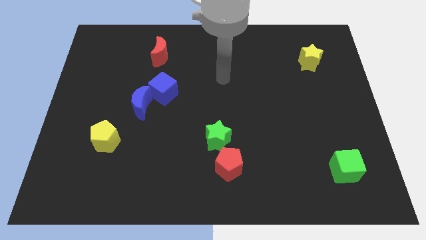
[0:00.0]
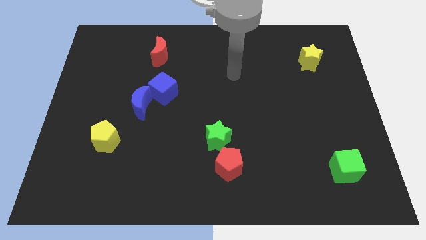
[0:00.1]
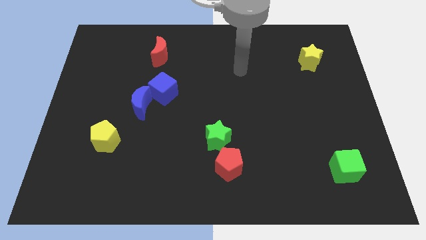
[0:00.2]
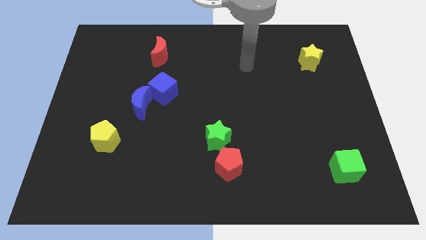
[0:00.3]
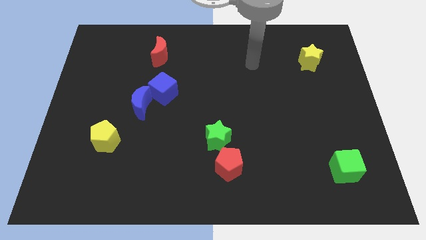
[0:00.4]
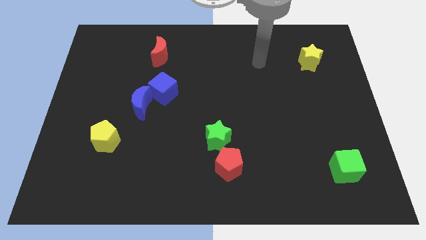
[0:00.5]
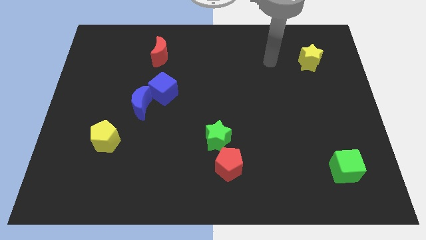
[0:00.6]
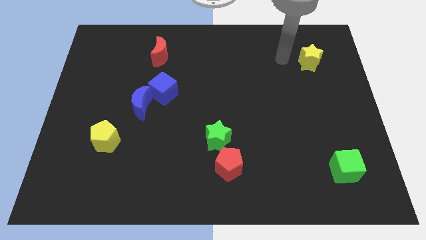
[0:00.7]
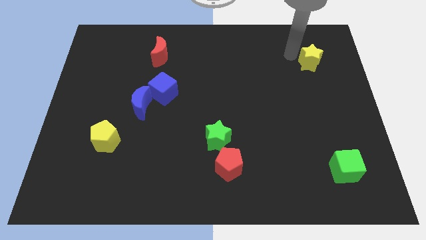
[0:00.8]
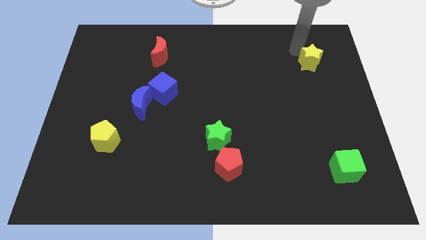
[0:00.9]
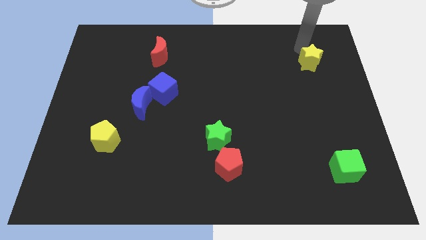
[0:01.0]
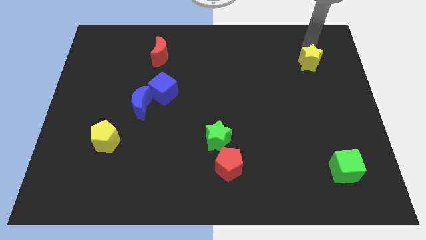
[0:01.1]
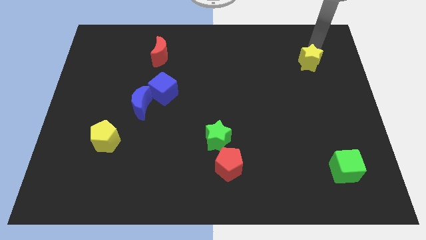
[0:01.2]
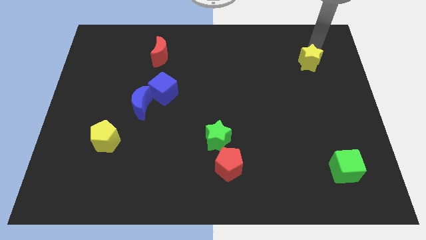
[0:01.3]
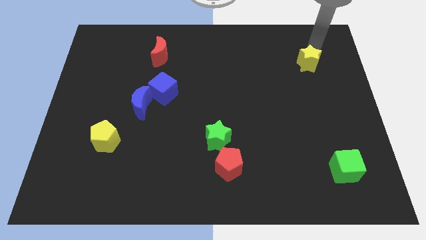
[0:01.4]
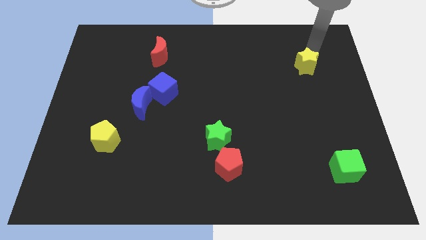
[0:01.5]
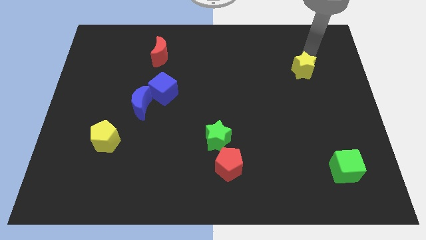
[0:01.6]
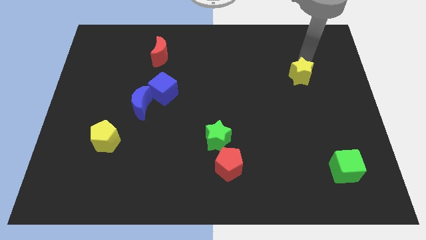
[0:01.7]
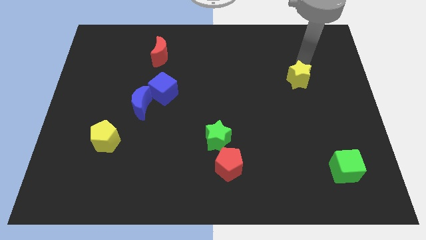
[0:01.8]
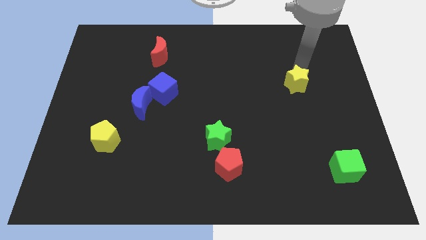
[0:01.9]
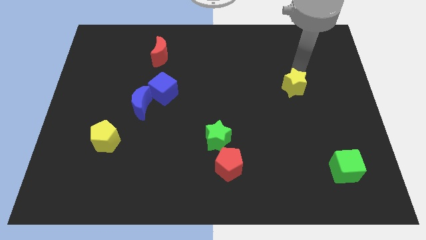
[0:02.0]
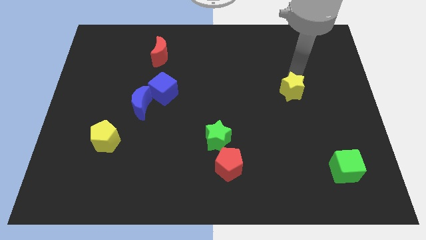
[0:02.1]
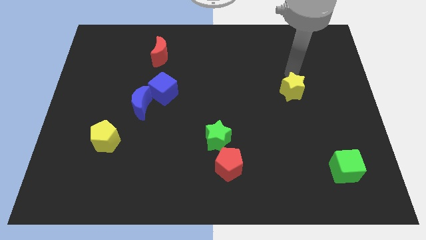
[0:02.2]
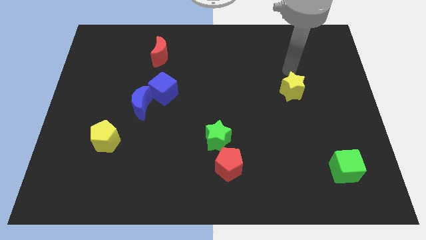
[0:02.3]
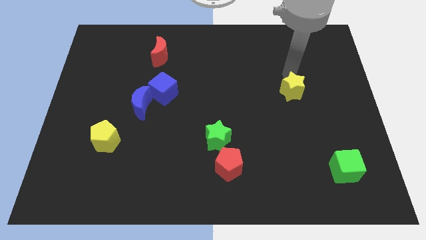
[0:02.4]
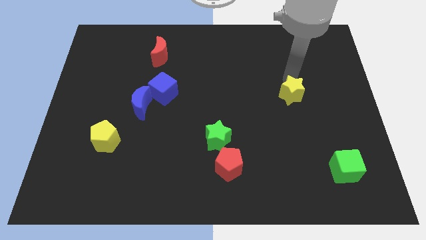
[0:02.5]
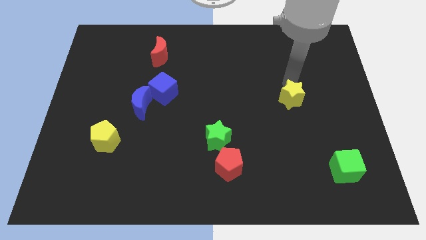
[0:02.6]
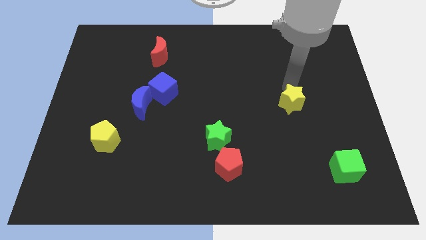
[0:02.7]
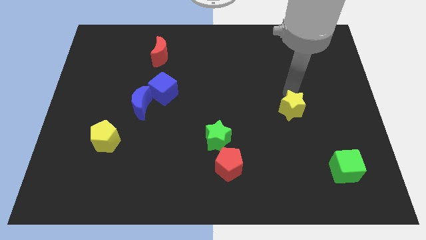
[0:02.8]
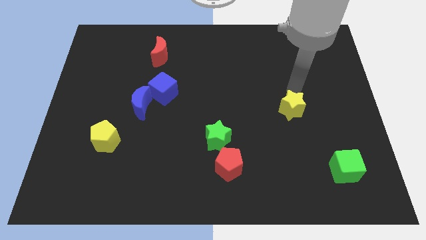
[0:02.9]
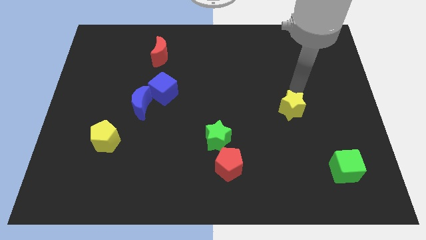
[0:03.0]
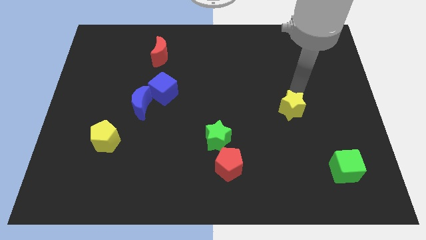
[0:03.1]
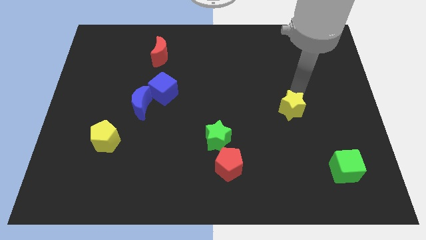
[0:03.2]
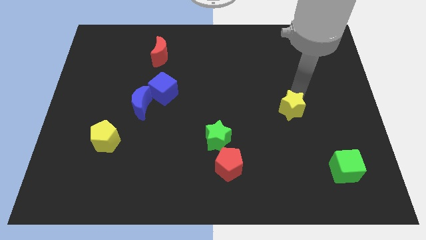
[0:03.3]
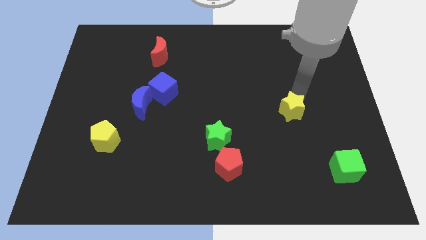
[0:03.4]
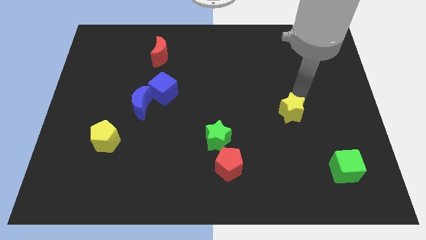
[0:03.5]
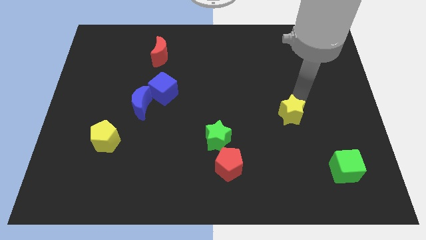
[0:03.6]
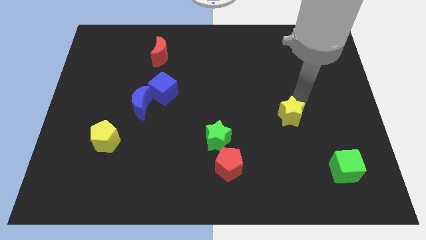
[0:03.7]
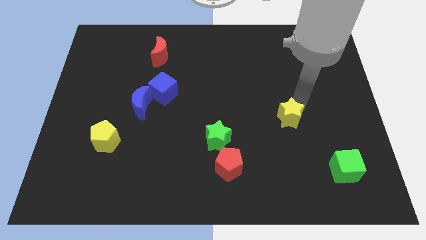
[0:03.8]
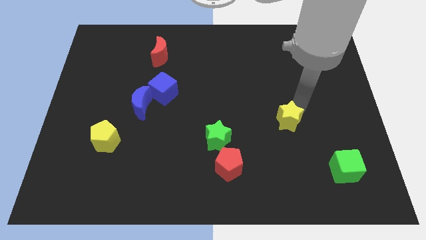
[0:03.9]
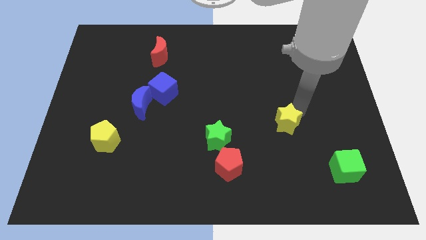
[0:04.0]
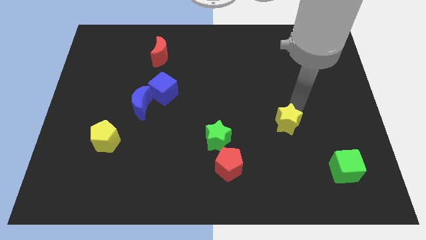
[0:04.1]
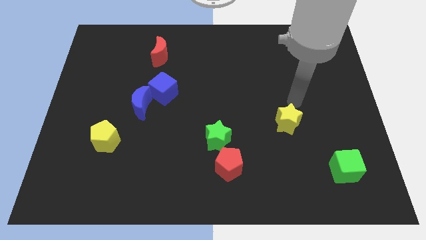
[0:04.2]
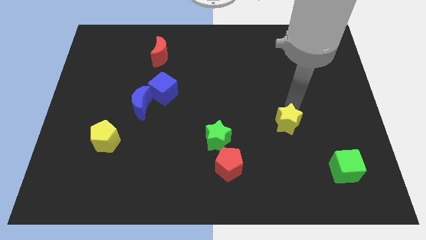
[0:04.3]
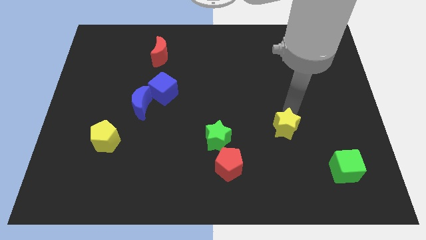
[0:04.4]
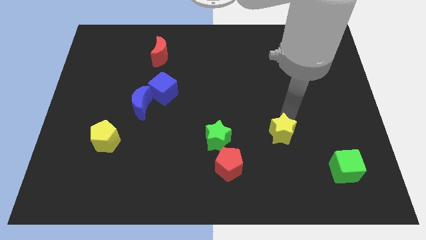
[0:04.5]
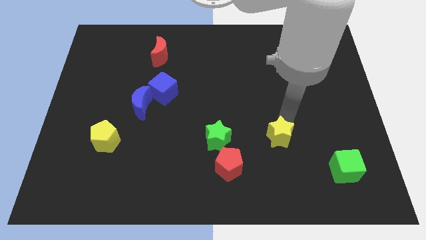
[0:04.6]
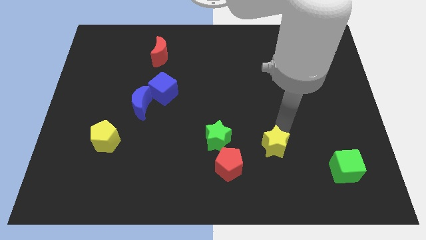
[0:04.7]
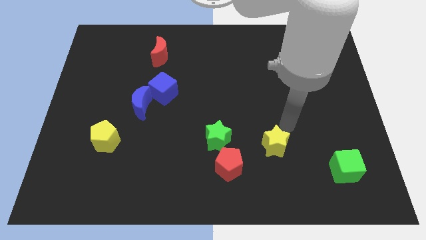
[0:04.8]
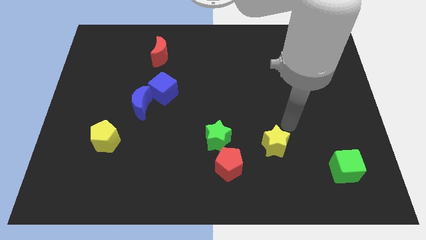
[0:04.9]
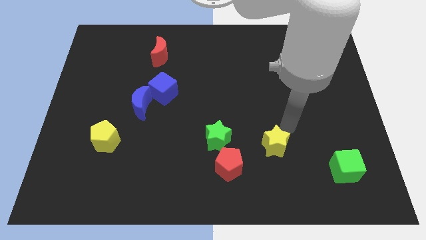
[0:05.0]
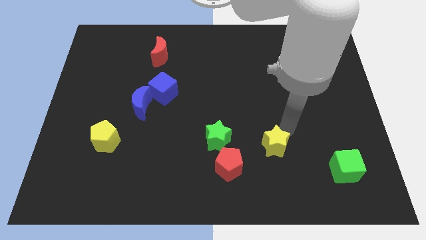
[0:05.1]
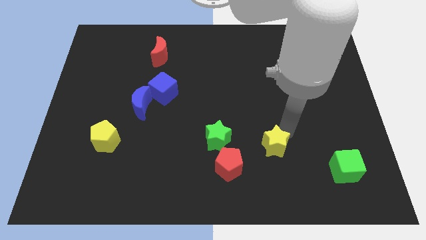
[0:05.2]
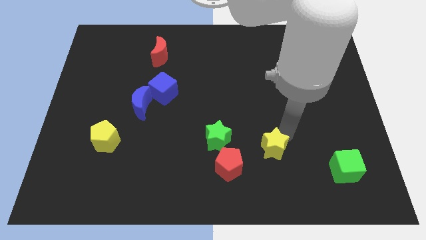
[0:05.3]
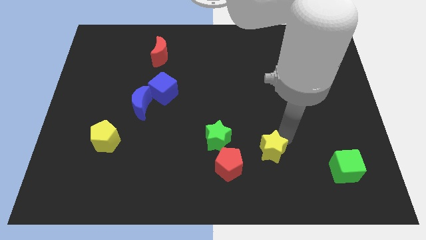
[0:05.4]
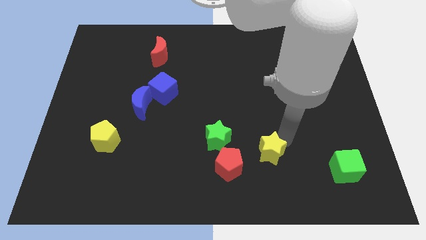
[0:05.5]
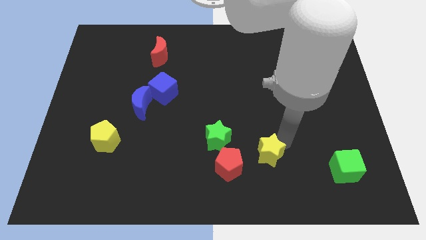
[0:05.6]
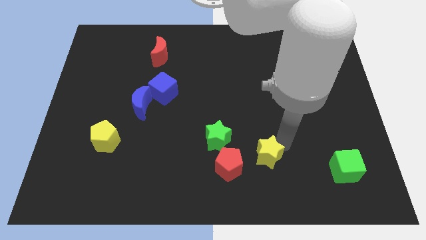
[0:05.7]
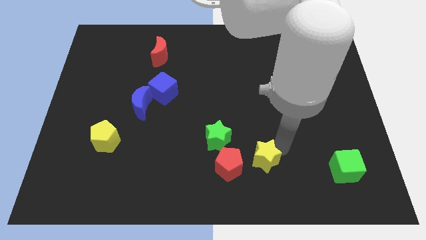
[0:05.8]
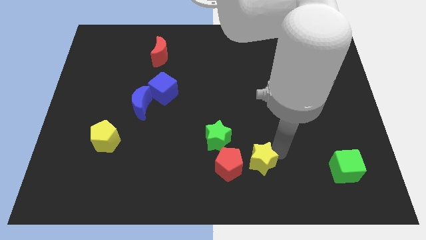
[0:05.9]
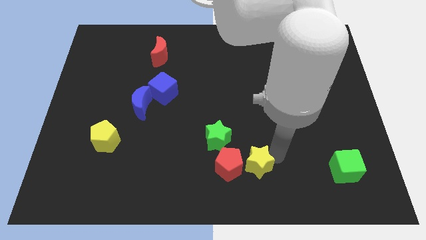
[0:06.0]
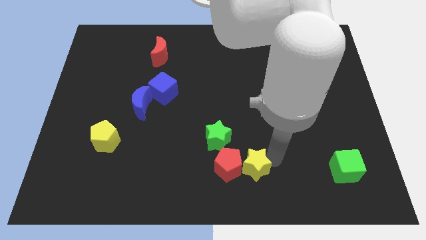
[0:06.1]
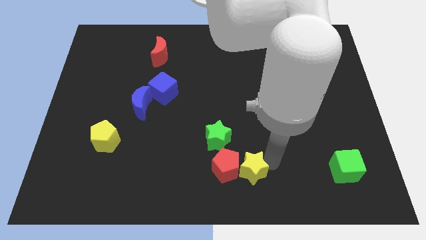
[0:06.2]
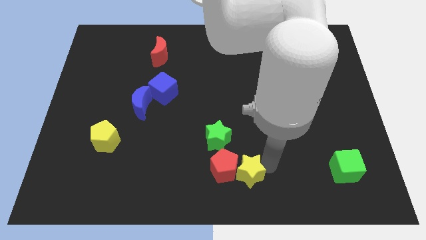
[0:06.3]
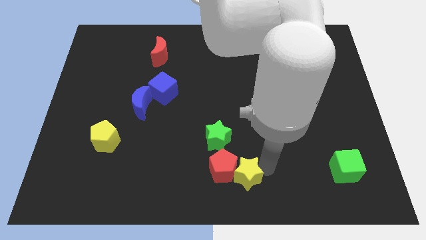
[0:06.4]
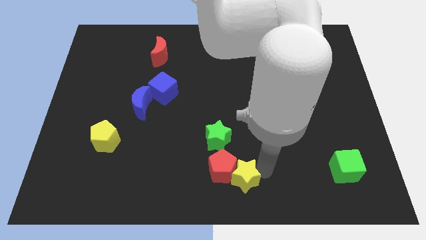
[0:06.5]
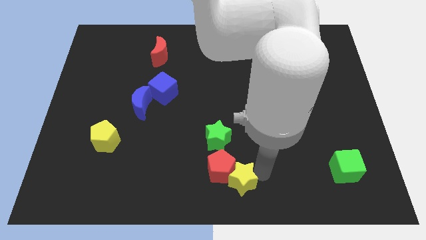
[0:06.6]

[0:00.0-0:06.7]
slide the yellow star to the bottom side of the green star

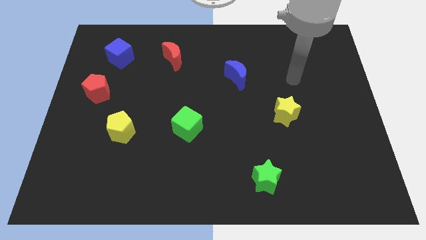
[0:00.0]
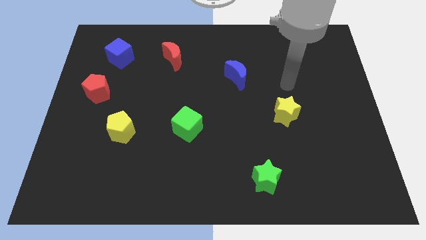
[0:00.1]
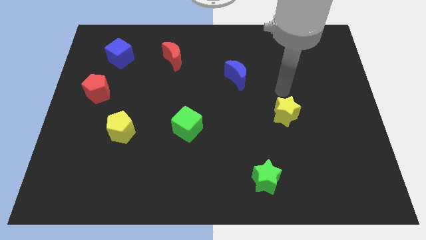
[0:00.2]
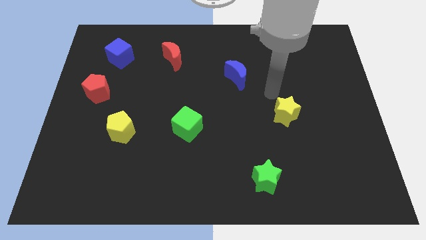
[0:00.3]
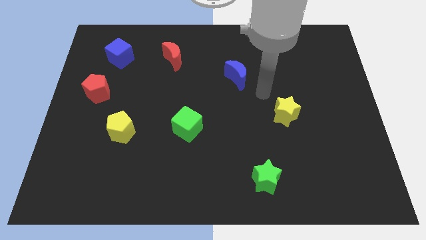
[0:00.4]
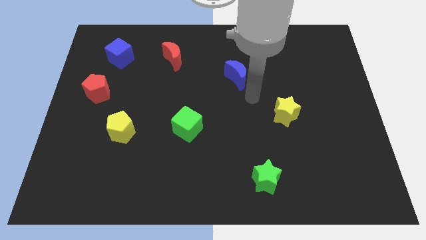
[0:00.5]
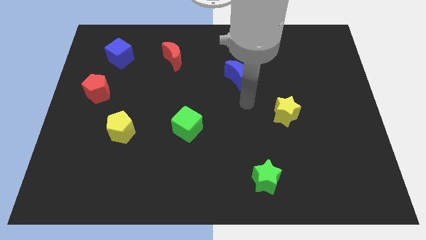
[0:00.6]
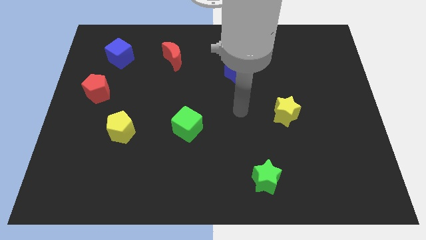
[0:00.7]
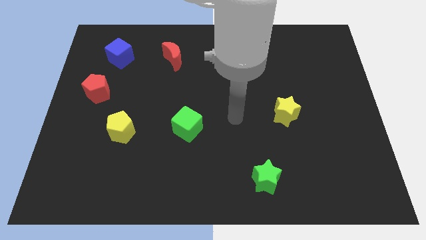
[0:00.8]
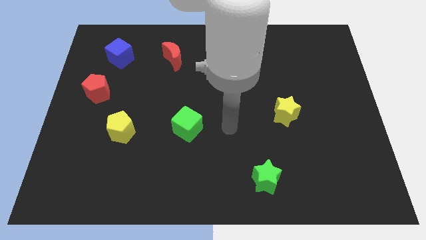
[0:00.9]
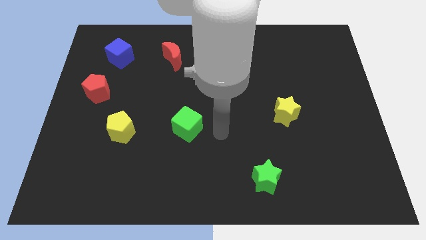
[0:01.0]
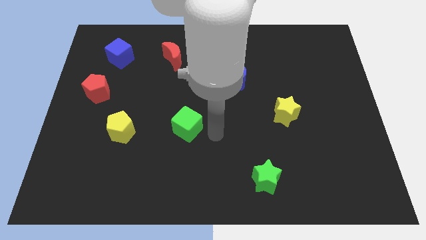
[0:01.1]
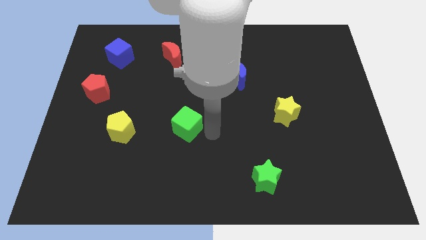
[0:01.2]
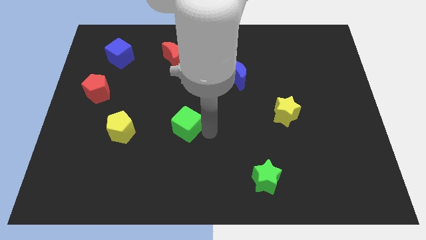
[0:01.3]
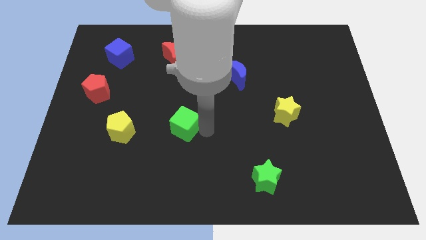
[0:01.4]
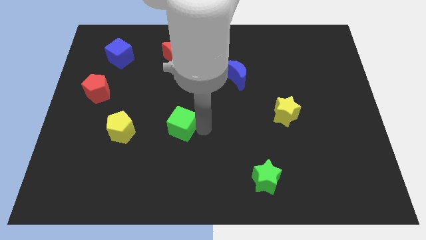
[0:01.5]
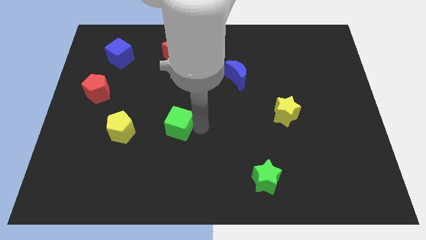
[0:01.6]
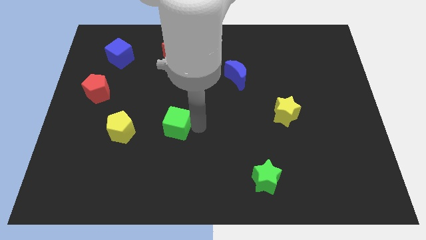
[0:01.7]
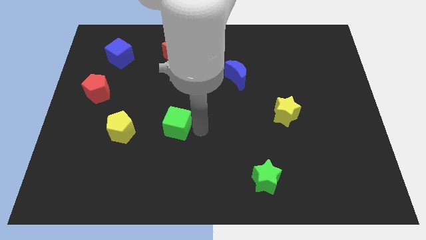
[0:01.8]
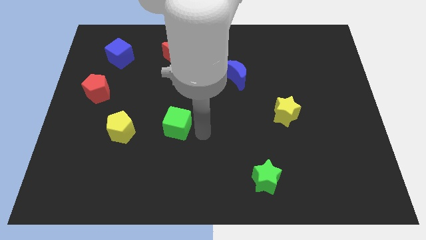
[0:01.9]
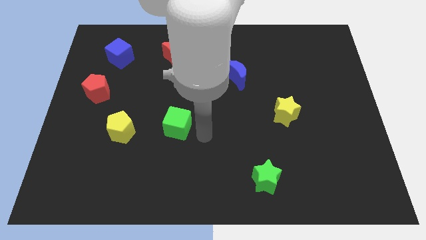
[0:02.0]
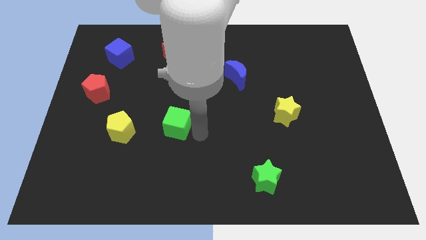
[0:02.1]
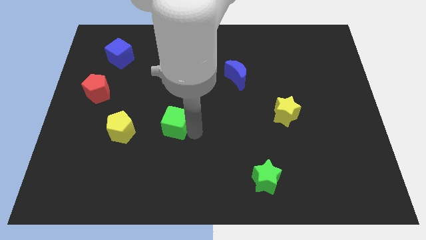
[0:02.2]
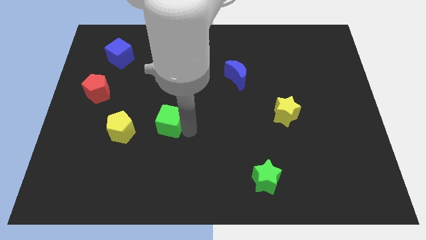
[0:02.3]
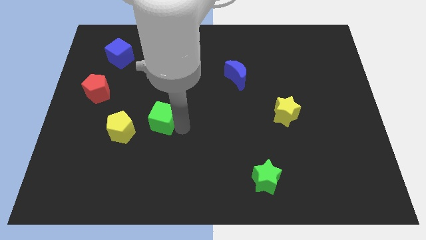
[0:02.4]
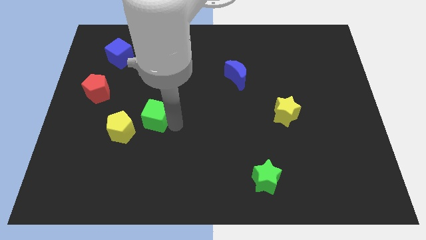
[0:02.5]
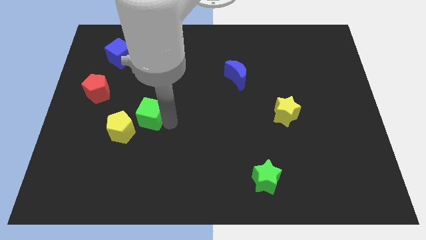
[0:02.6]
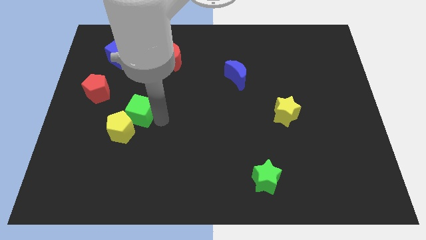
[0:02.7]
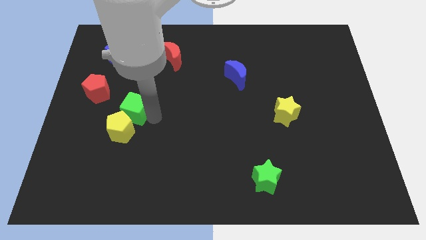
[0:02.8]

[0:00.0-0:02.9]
put the green cube diagonally down and to the right of the red pentagon
